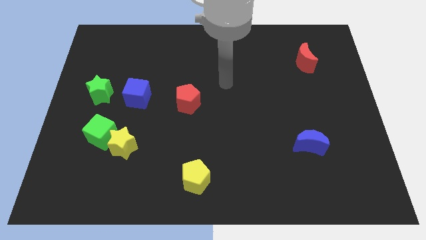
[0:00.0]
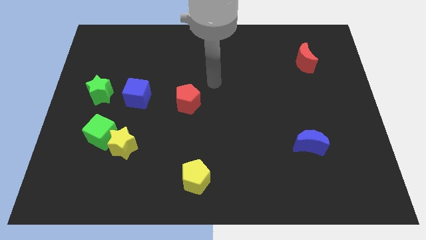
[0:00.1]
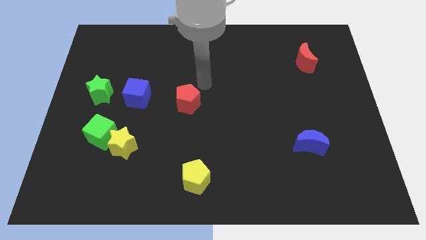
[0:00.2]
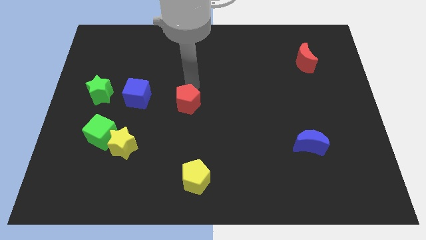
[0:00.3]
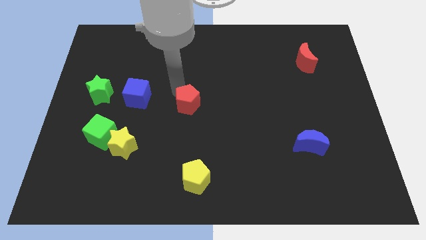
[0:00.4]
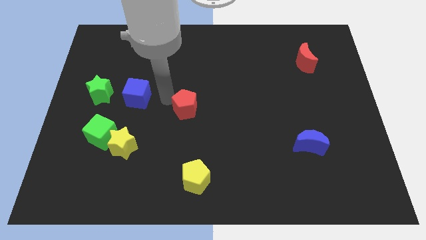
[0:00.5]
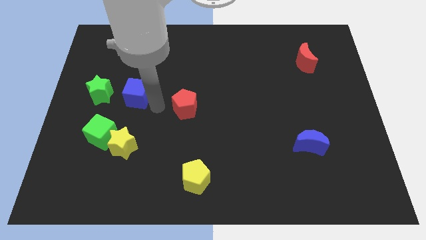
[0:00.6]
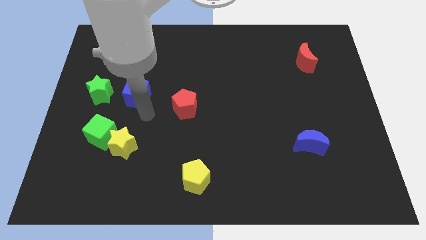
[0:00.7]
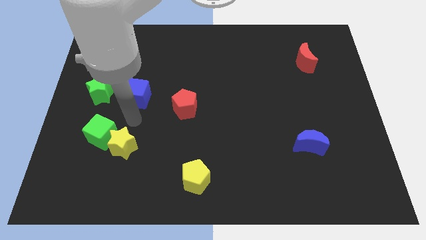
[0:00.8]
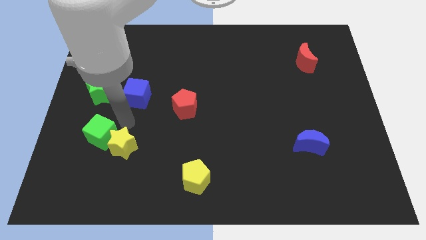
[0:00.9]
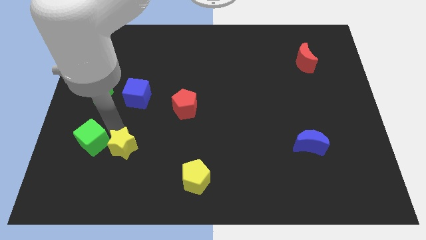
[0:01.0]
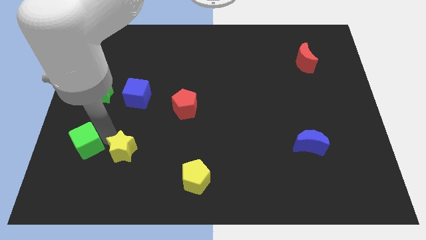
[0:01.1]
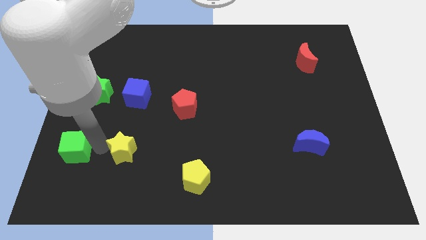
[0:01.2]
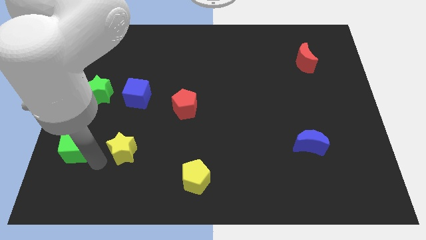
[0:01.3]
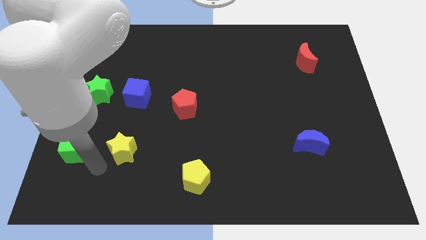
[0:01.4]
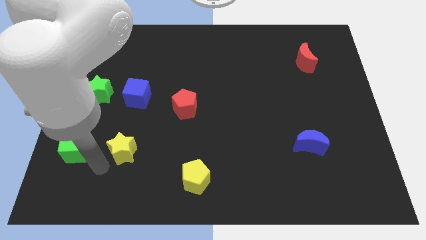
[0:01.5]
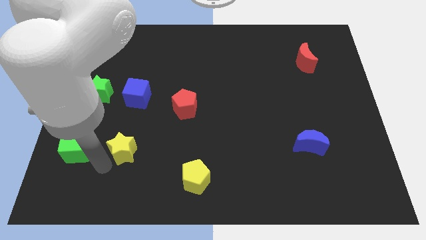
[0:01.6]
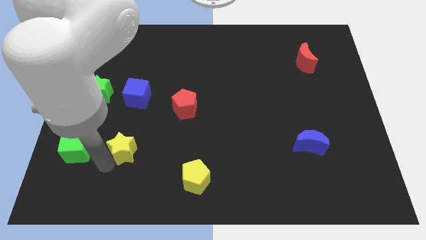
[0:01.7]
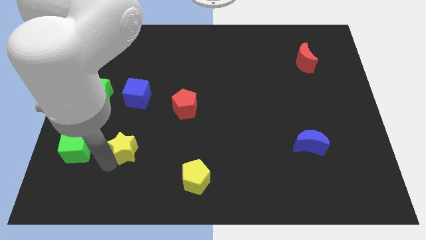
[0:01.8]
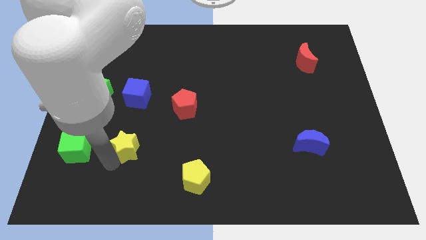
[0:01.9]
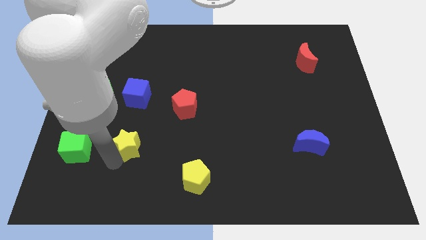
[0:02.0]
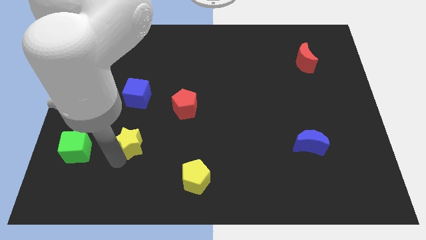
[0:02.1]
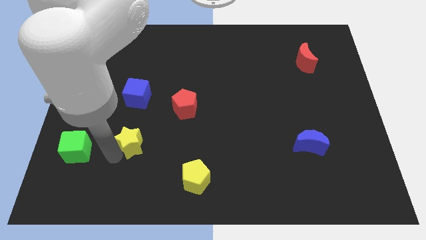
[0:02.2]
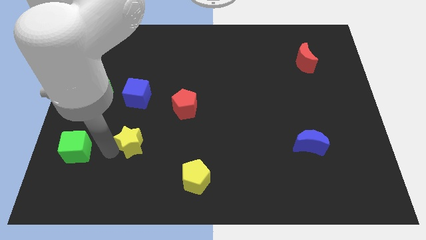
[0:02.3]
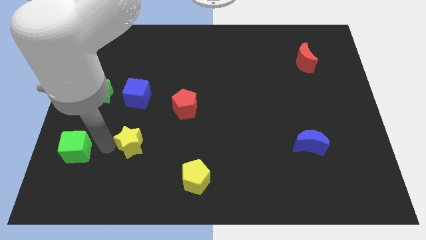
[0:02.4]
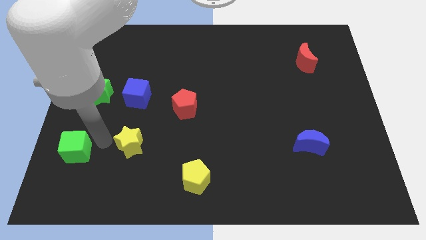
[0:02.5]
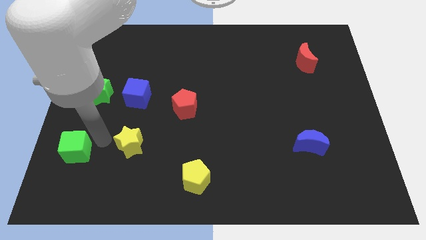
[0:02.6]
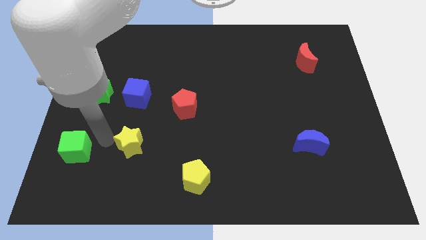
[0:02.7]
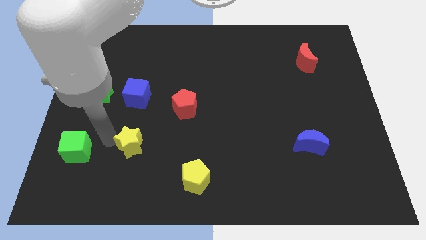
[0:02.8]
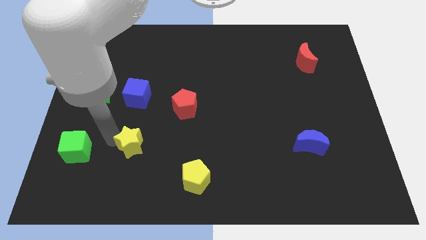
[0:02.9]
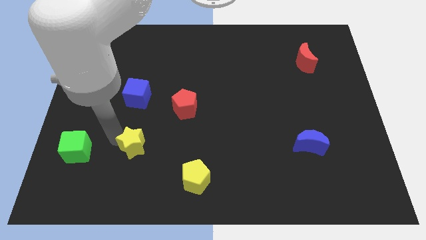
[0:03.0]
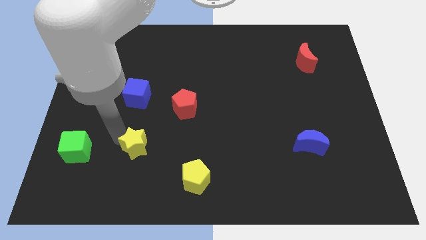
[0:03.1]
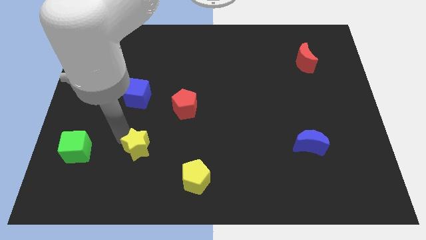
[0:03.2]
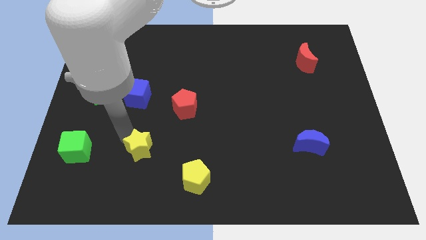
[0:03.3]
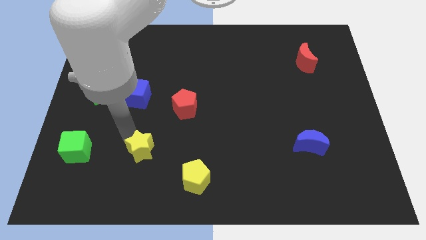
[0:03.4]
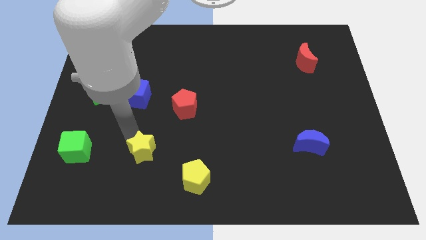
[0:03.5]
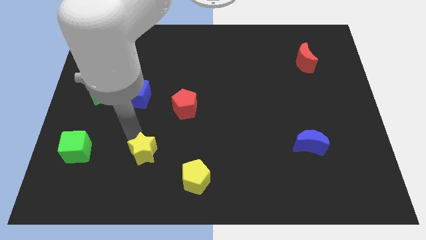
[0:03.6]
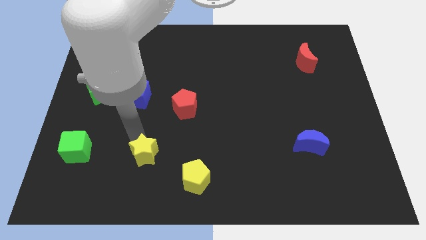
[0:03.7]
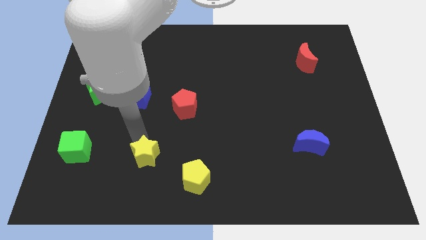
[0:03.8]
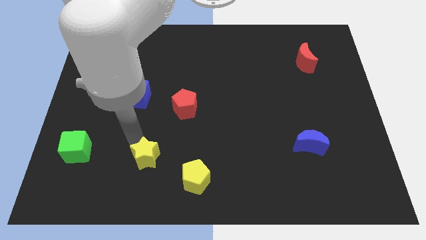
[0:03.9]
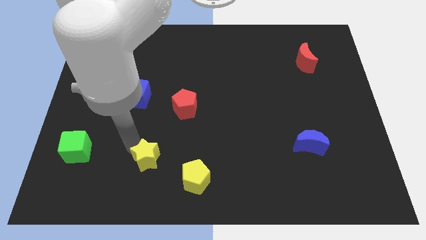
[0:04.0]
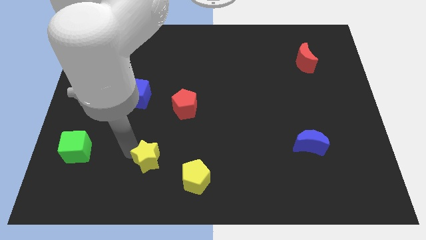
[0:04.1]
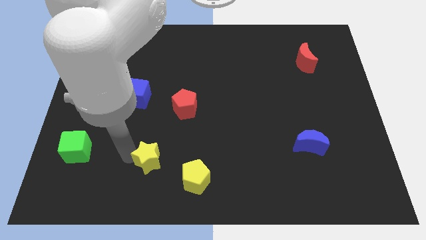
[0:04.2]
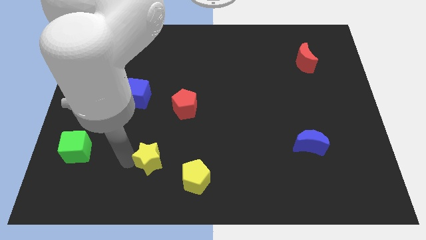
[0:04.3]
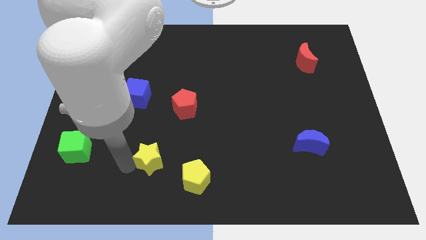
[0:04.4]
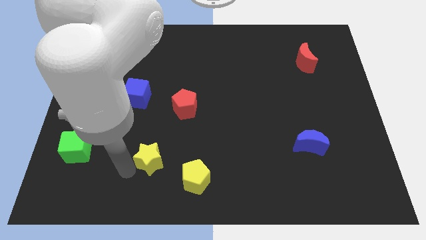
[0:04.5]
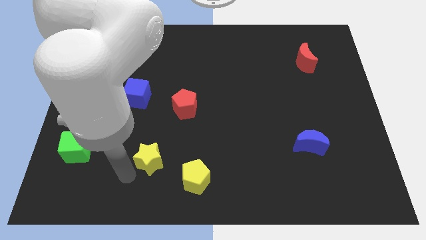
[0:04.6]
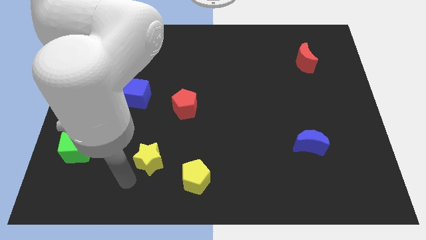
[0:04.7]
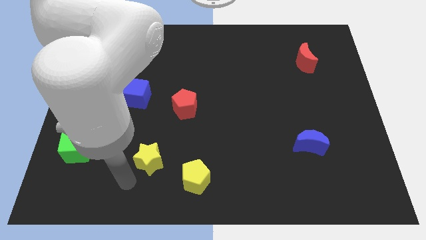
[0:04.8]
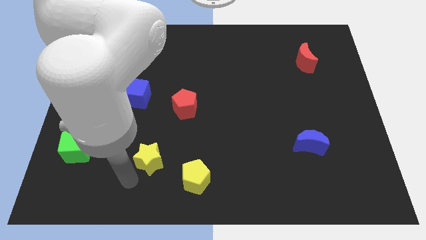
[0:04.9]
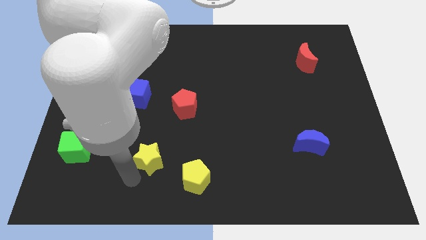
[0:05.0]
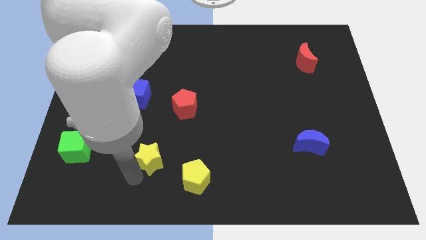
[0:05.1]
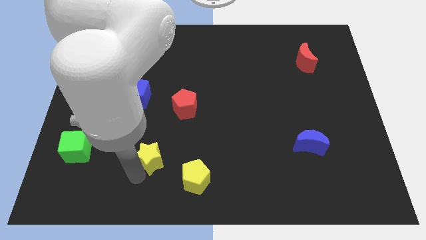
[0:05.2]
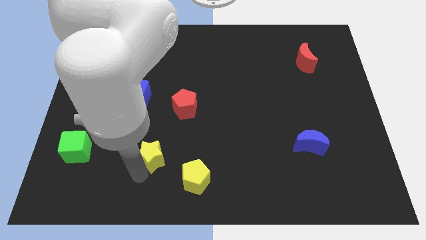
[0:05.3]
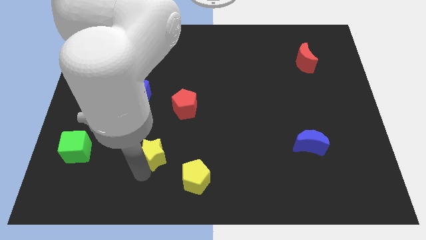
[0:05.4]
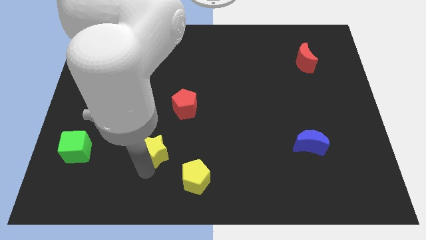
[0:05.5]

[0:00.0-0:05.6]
slide the yellow star somewhat to the right

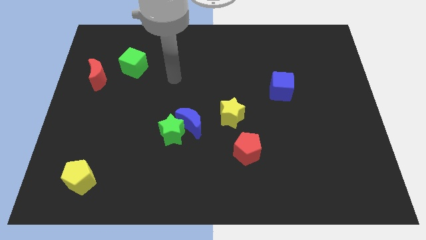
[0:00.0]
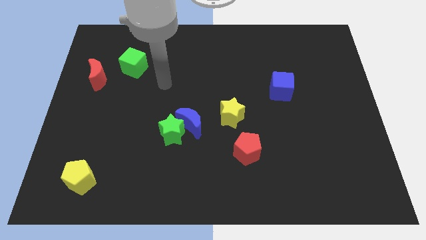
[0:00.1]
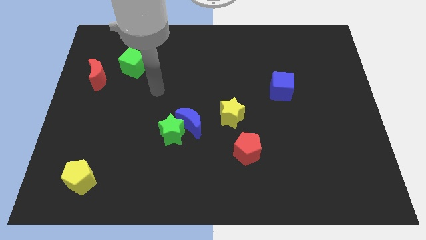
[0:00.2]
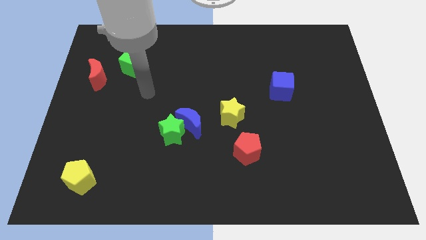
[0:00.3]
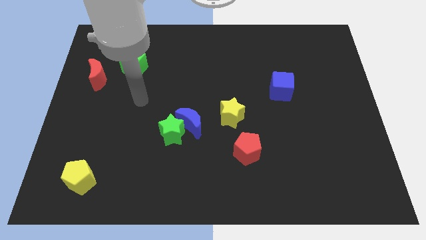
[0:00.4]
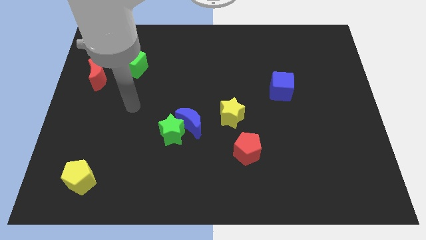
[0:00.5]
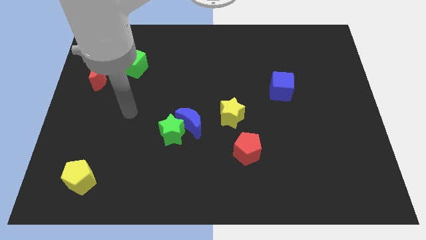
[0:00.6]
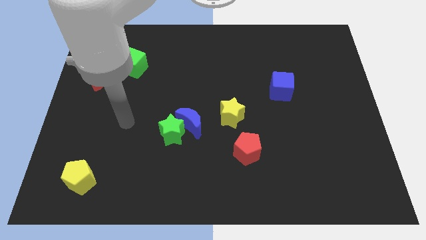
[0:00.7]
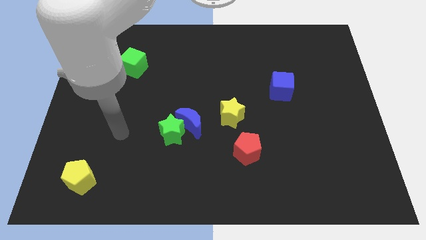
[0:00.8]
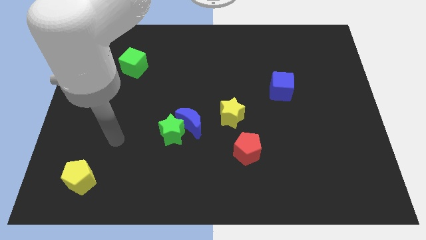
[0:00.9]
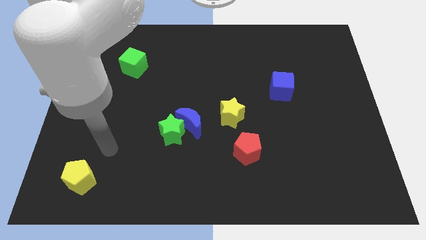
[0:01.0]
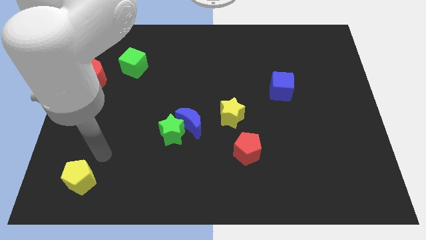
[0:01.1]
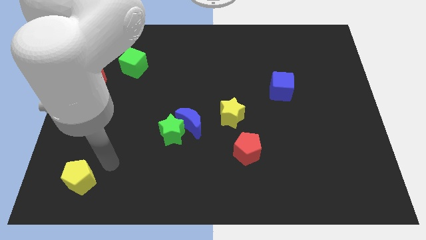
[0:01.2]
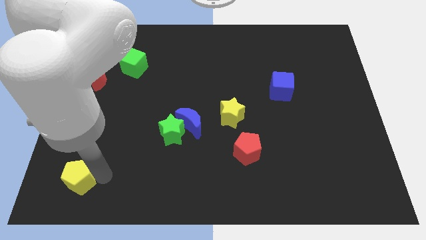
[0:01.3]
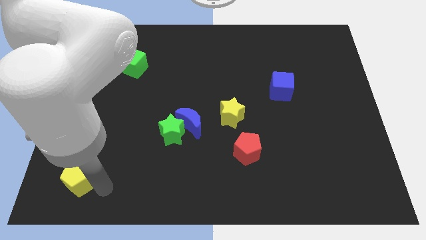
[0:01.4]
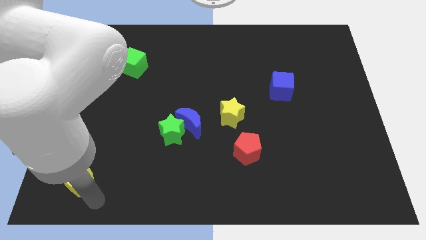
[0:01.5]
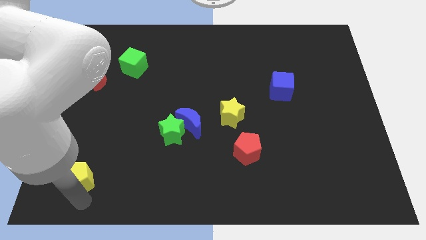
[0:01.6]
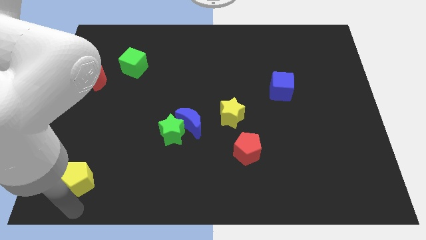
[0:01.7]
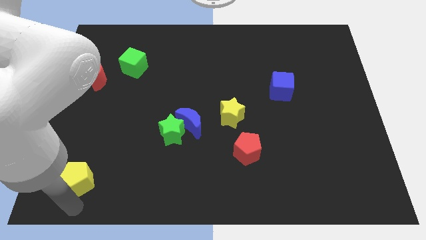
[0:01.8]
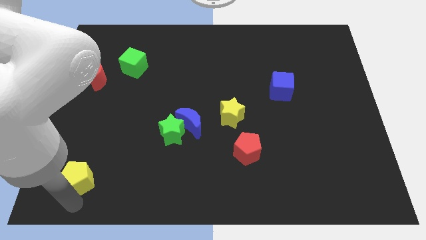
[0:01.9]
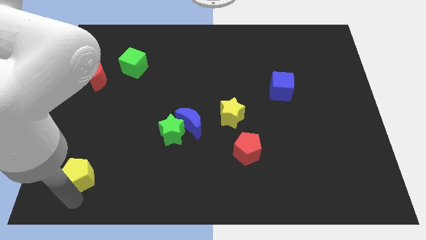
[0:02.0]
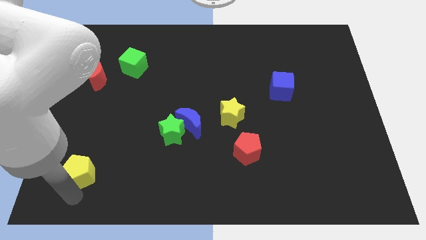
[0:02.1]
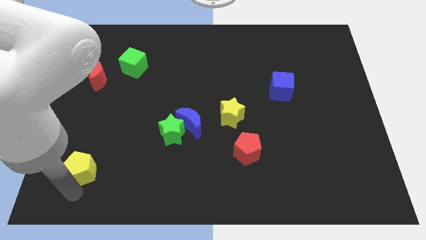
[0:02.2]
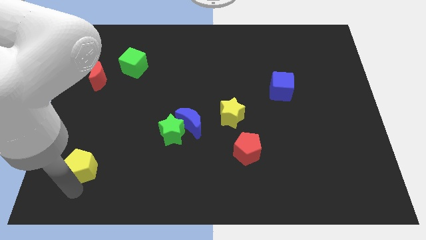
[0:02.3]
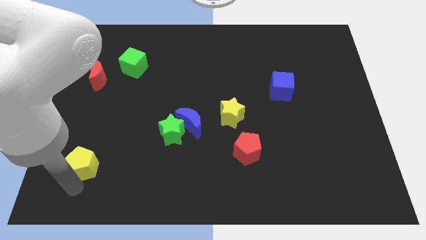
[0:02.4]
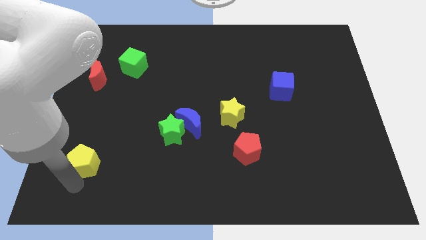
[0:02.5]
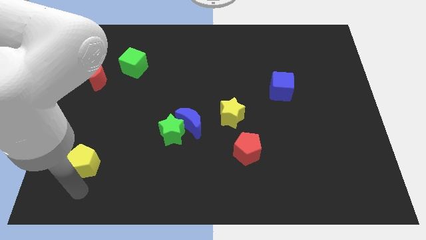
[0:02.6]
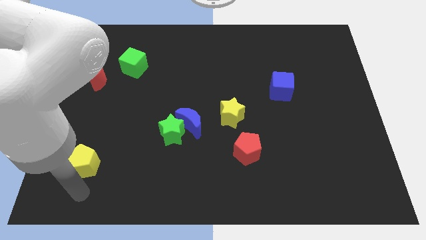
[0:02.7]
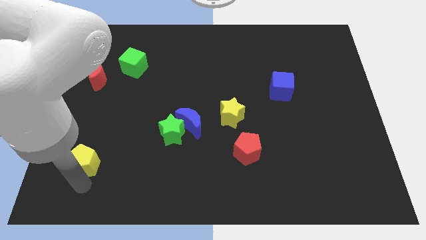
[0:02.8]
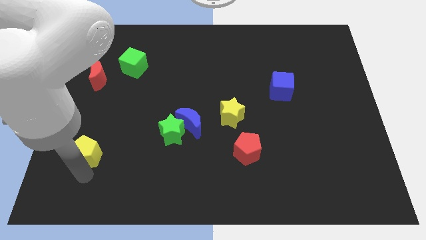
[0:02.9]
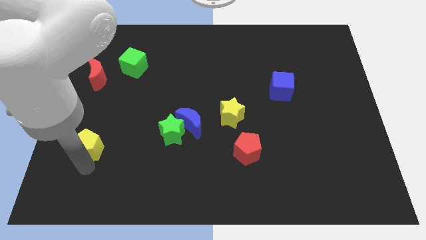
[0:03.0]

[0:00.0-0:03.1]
slide the yellow pentagon a bit upwards
